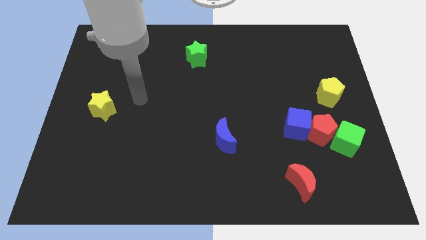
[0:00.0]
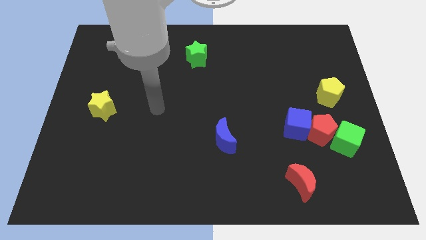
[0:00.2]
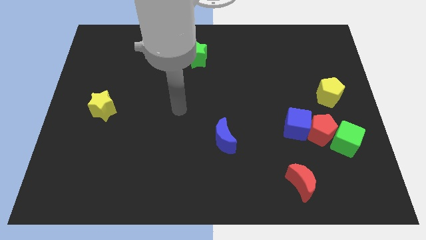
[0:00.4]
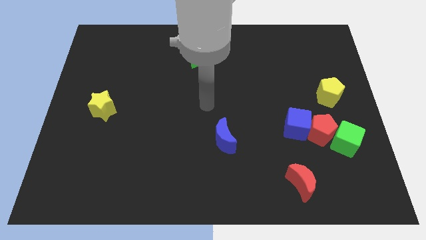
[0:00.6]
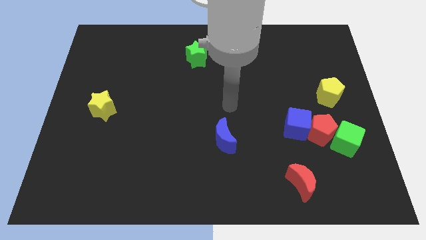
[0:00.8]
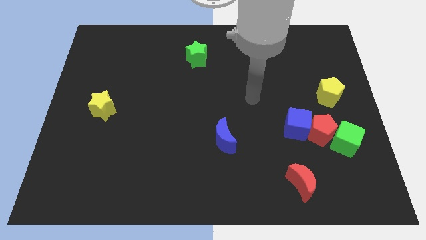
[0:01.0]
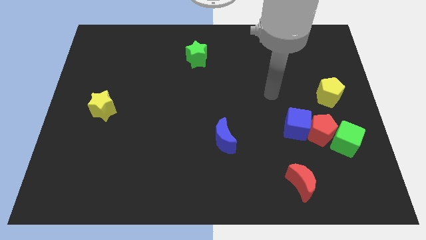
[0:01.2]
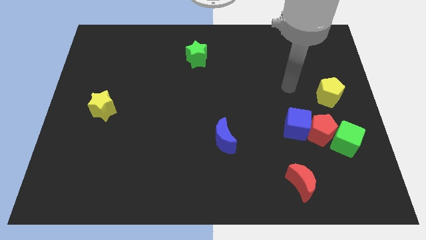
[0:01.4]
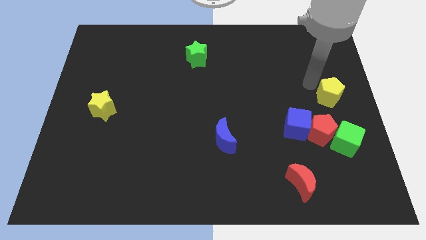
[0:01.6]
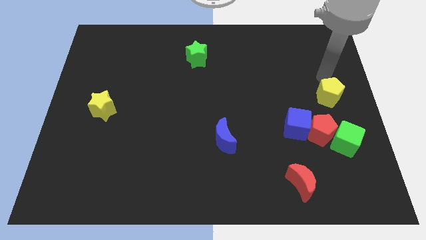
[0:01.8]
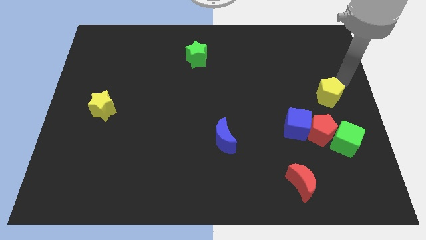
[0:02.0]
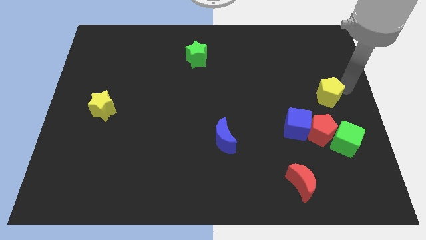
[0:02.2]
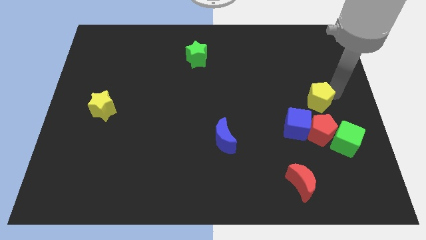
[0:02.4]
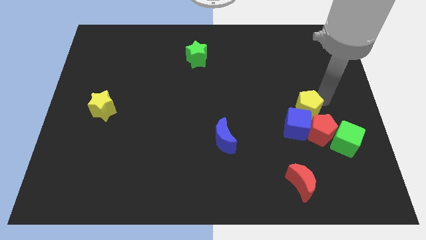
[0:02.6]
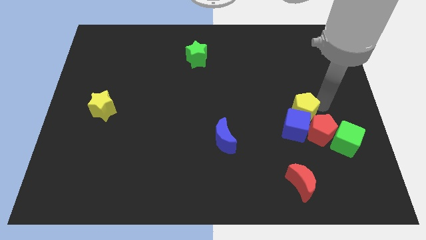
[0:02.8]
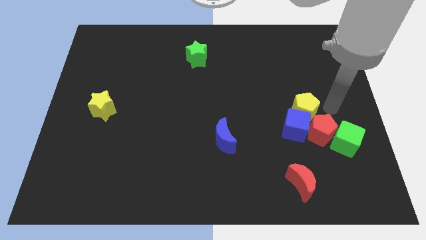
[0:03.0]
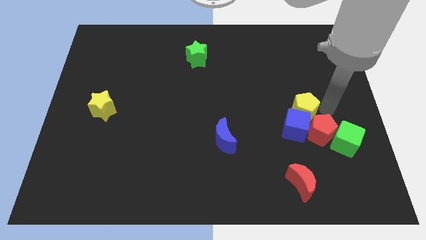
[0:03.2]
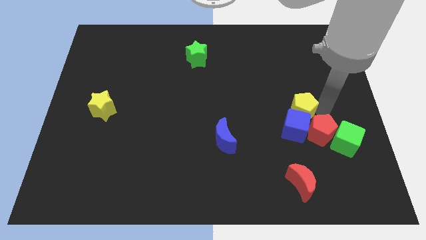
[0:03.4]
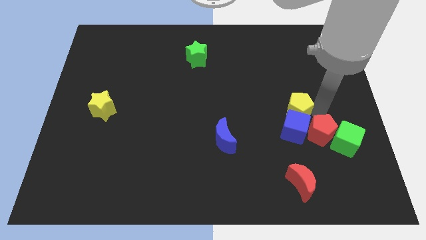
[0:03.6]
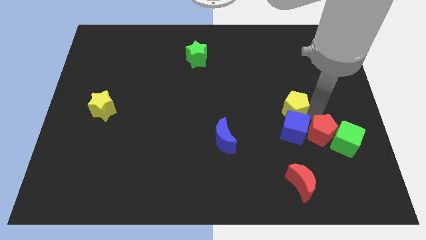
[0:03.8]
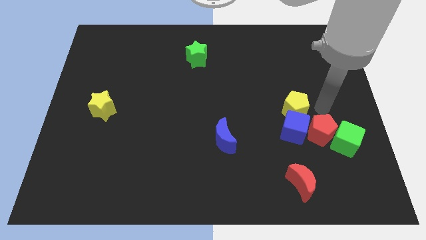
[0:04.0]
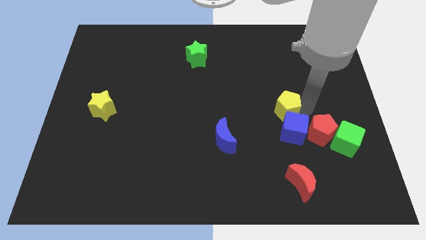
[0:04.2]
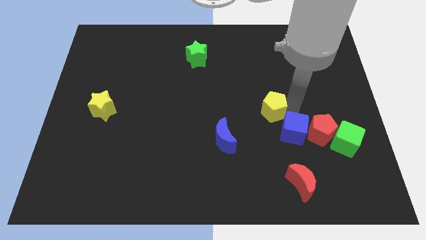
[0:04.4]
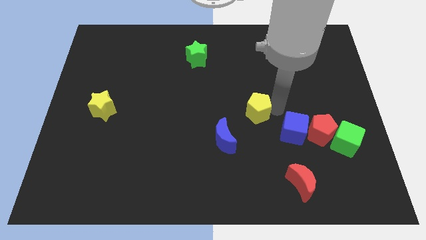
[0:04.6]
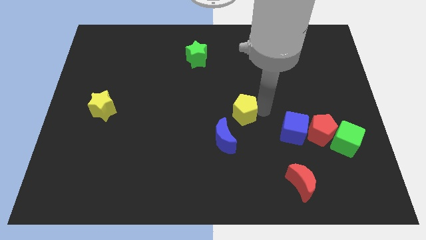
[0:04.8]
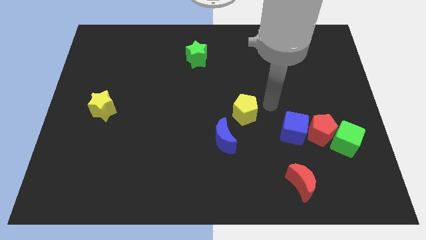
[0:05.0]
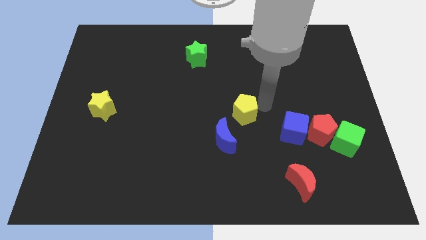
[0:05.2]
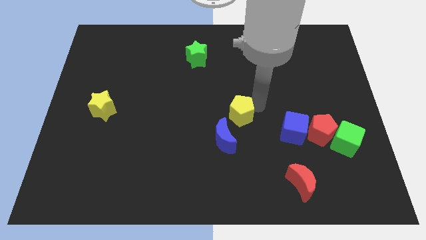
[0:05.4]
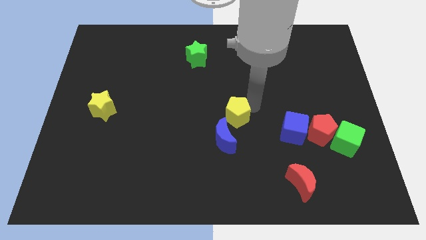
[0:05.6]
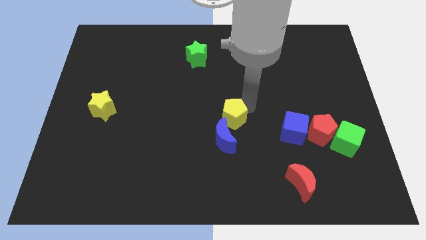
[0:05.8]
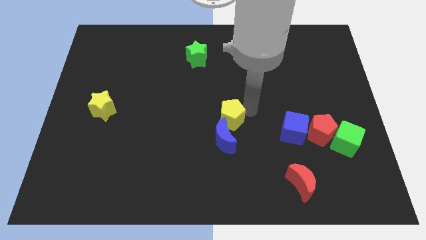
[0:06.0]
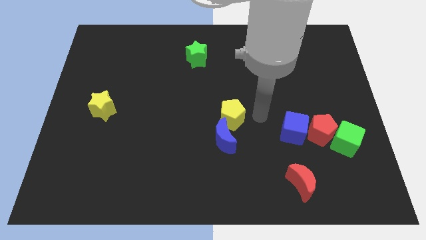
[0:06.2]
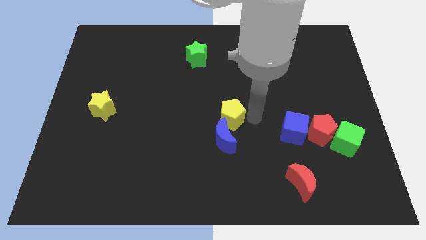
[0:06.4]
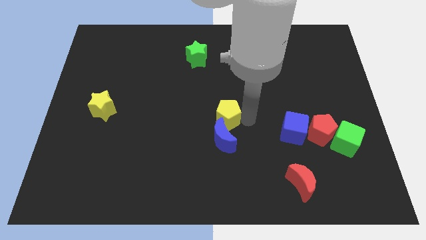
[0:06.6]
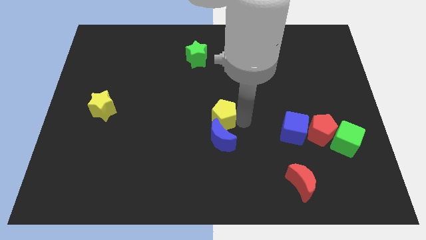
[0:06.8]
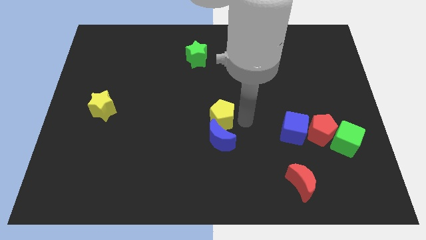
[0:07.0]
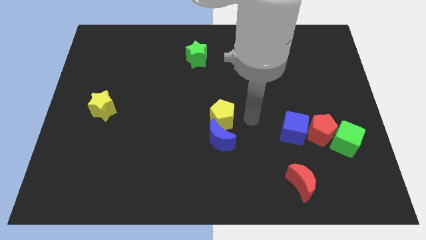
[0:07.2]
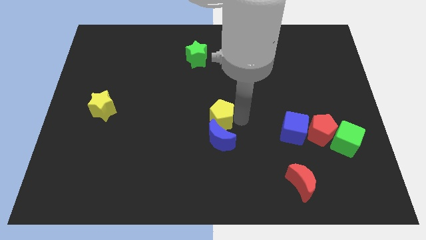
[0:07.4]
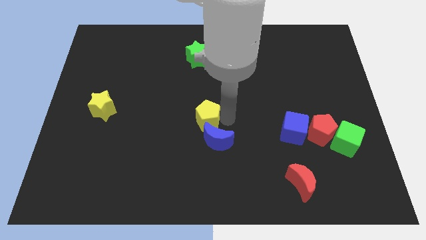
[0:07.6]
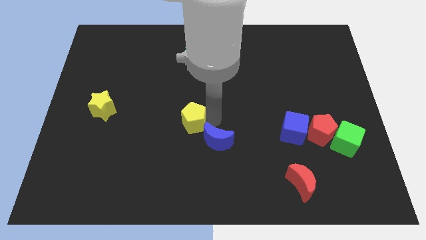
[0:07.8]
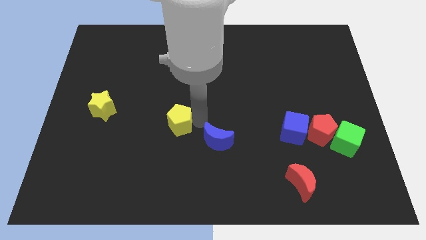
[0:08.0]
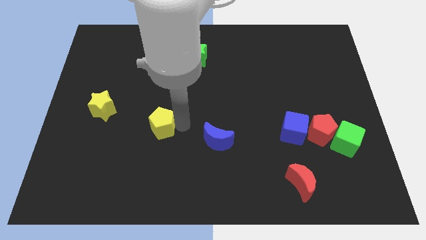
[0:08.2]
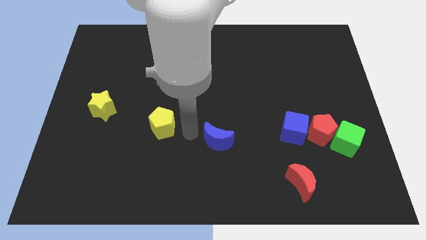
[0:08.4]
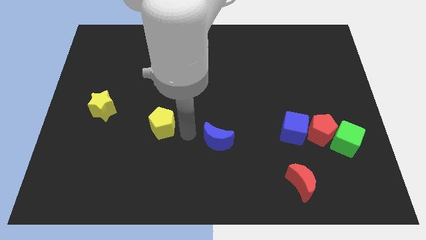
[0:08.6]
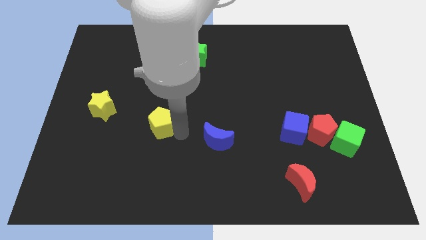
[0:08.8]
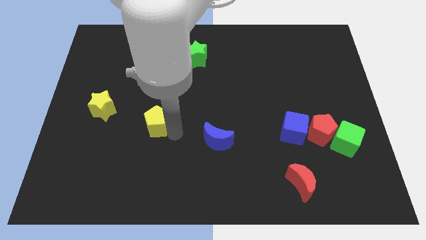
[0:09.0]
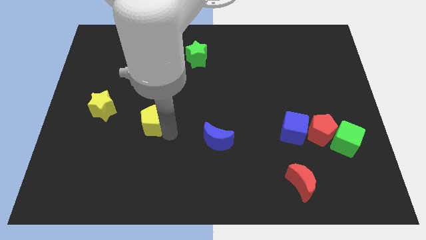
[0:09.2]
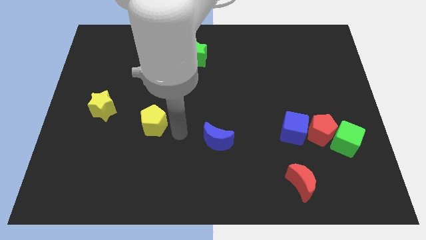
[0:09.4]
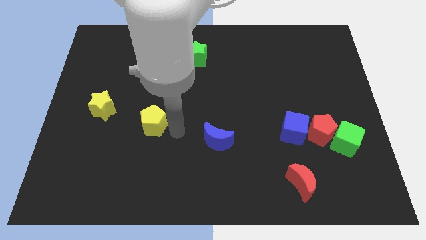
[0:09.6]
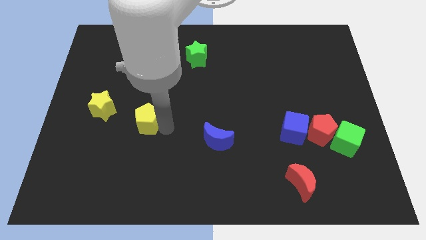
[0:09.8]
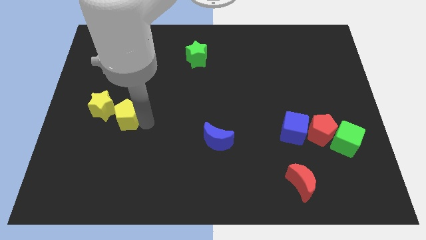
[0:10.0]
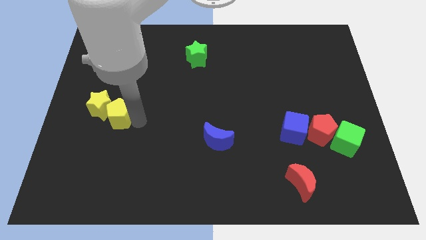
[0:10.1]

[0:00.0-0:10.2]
move the yellow pentagon next to the yellow star

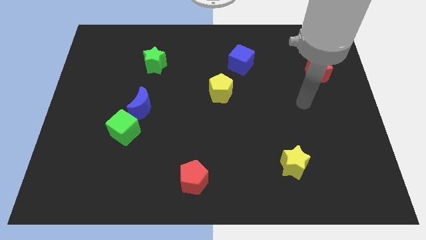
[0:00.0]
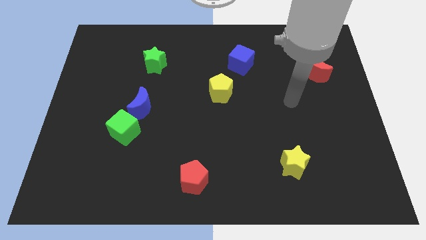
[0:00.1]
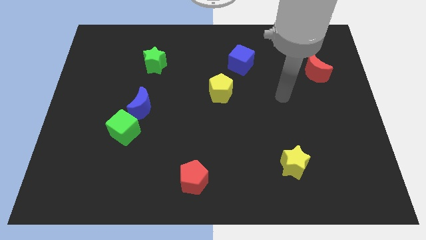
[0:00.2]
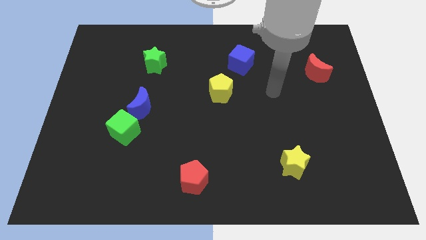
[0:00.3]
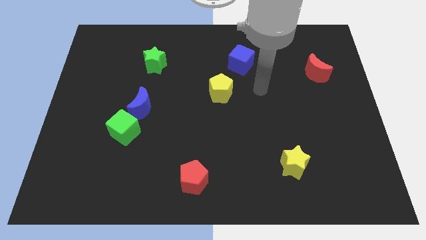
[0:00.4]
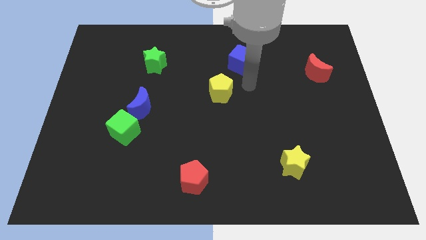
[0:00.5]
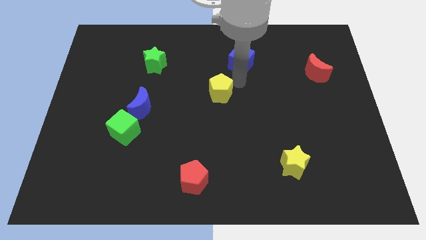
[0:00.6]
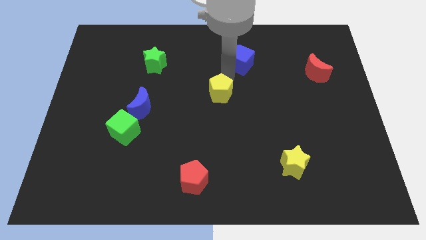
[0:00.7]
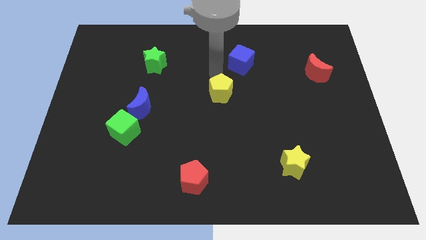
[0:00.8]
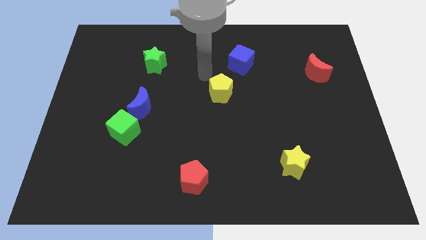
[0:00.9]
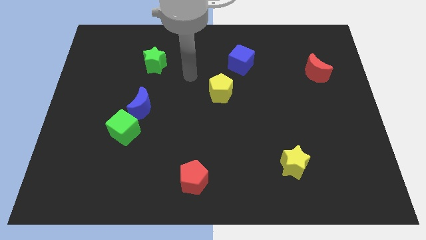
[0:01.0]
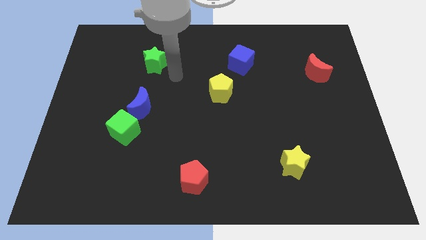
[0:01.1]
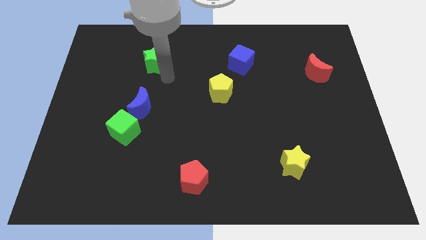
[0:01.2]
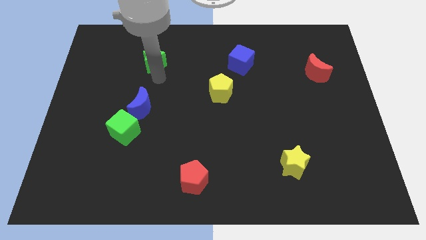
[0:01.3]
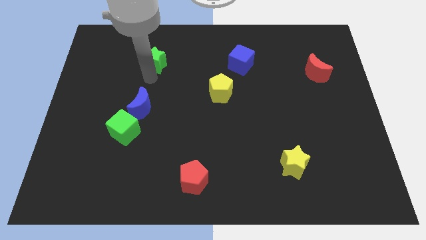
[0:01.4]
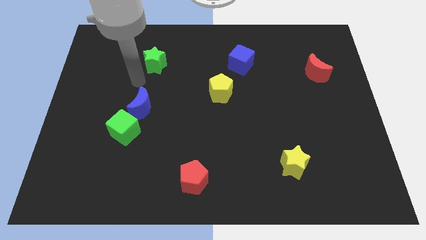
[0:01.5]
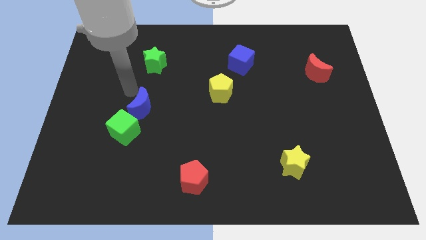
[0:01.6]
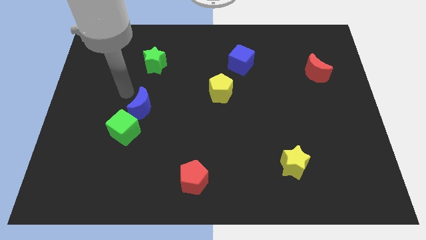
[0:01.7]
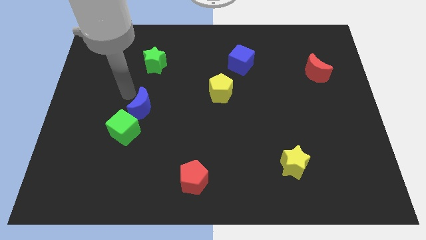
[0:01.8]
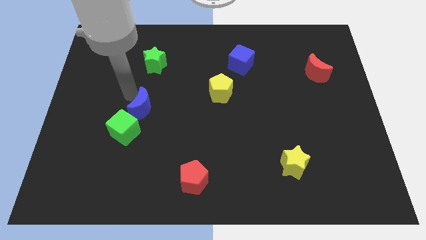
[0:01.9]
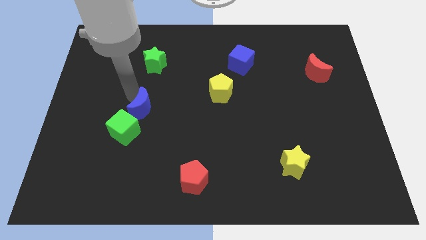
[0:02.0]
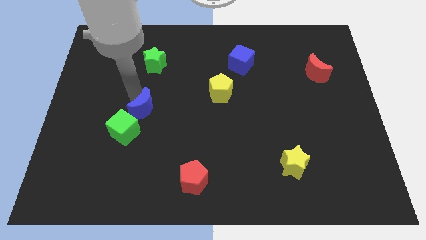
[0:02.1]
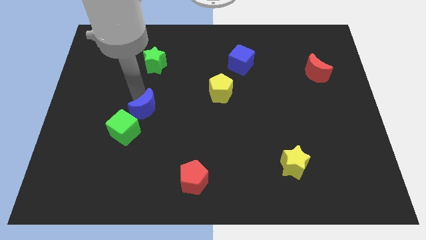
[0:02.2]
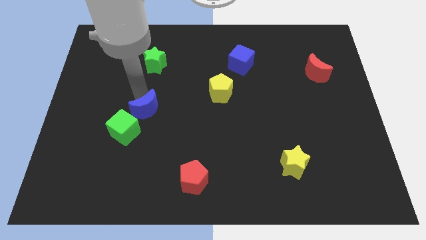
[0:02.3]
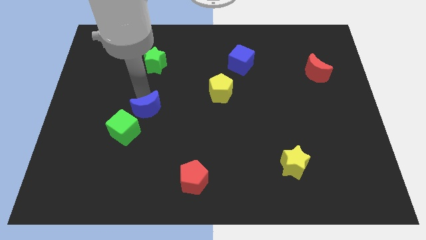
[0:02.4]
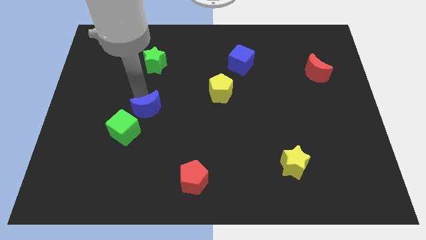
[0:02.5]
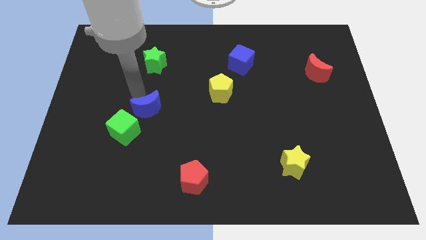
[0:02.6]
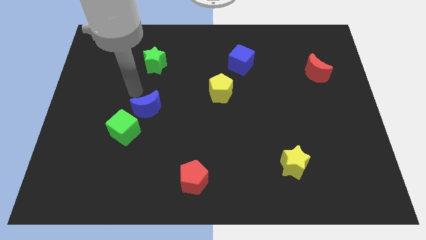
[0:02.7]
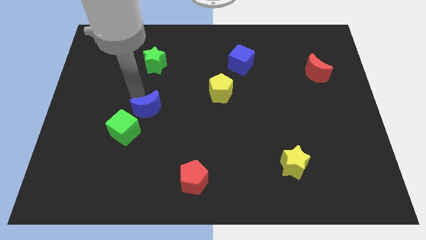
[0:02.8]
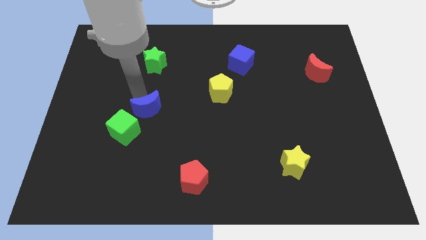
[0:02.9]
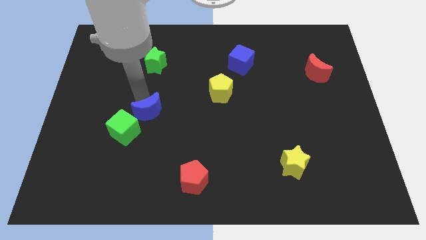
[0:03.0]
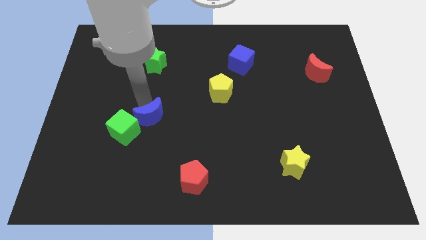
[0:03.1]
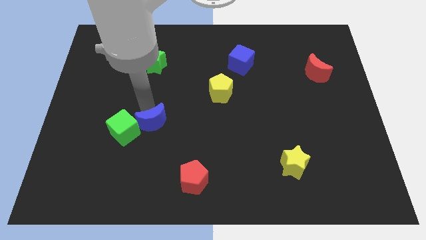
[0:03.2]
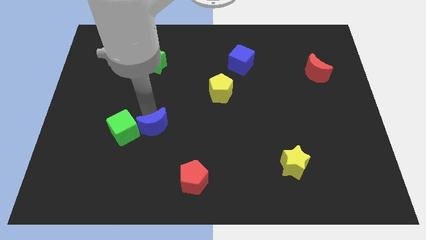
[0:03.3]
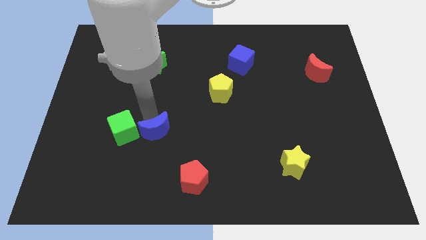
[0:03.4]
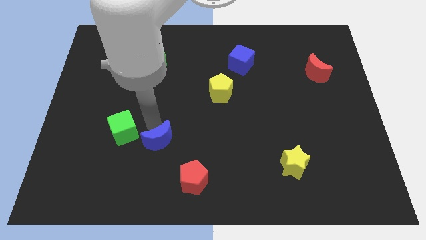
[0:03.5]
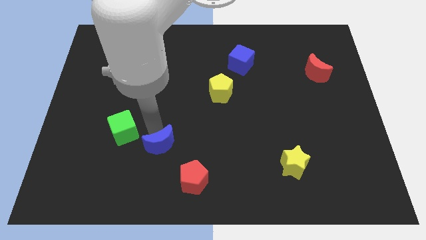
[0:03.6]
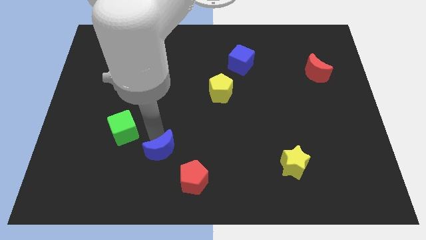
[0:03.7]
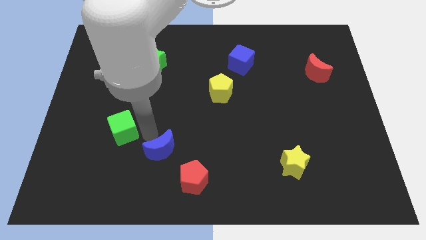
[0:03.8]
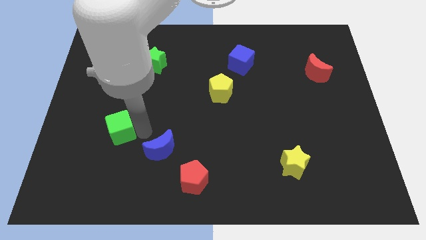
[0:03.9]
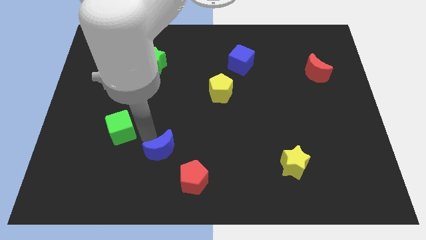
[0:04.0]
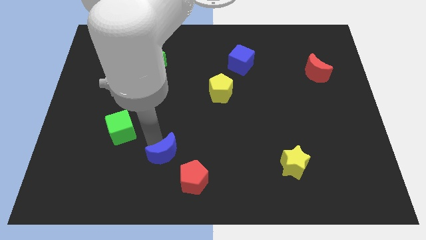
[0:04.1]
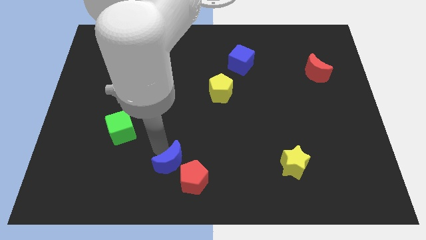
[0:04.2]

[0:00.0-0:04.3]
move the blue moon close to the red pentagon
